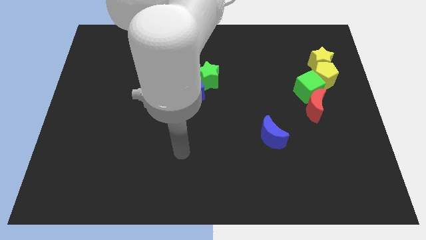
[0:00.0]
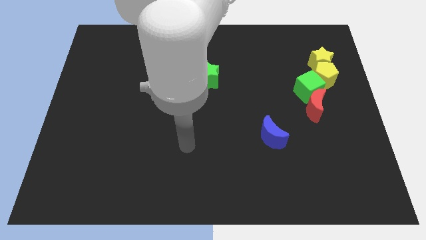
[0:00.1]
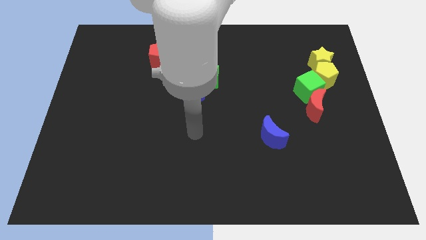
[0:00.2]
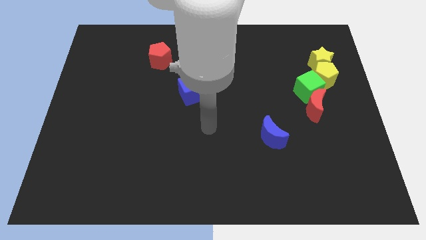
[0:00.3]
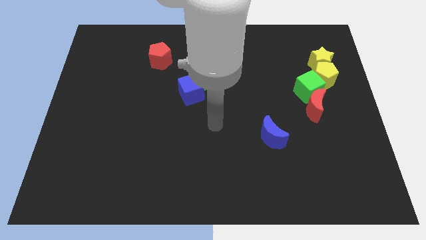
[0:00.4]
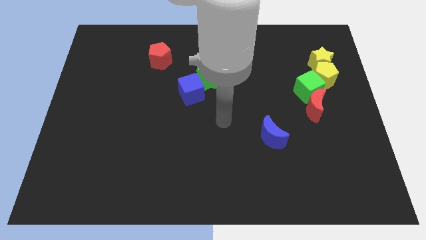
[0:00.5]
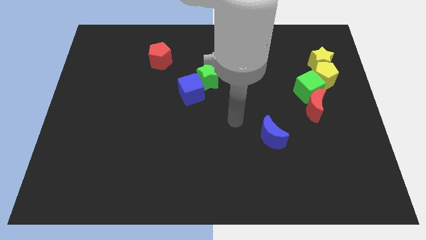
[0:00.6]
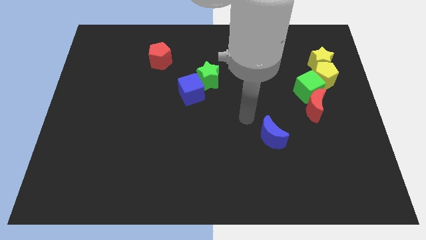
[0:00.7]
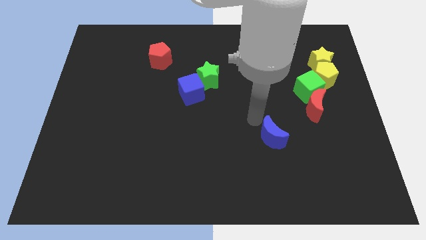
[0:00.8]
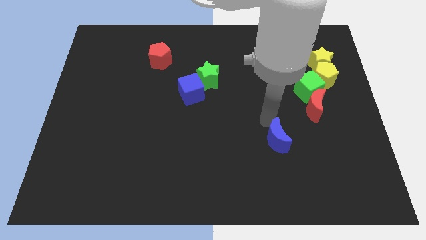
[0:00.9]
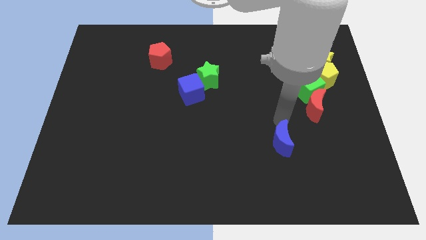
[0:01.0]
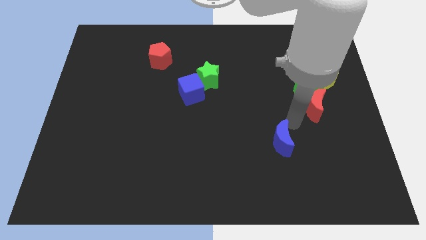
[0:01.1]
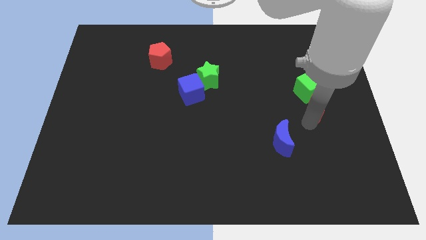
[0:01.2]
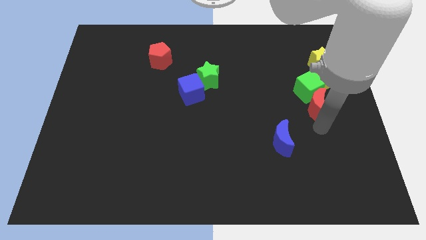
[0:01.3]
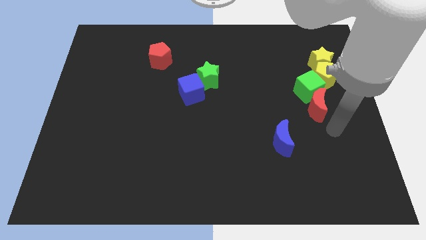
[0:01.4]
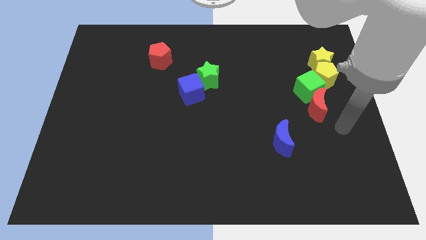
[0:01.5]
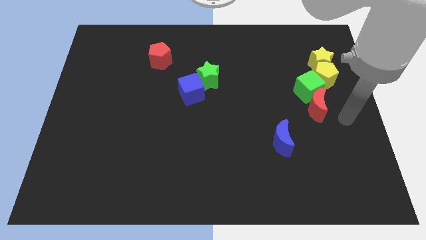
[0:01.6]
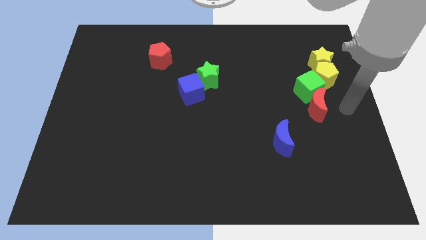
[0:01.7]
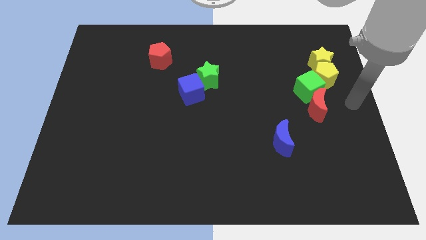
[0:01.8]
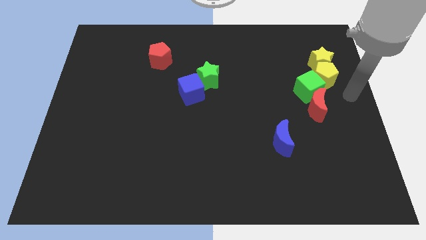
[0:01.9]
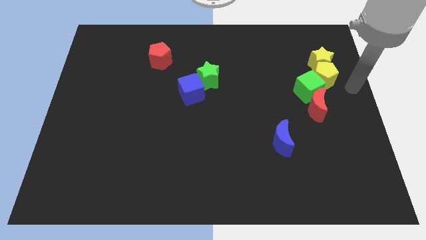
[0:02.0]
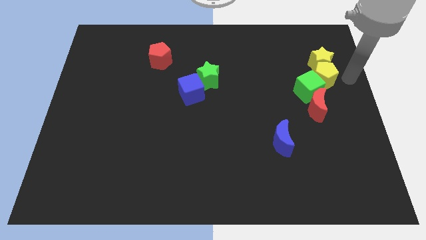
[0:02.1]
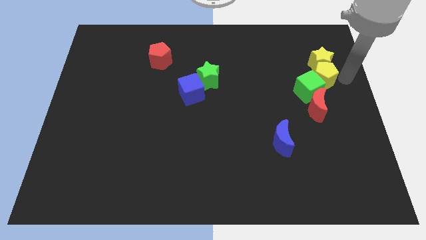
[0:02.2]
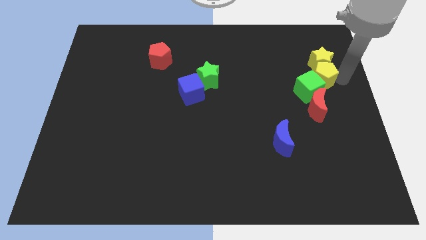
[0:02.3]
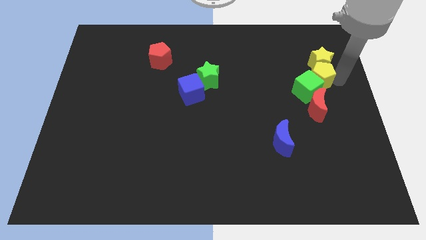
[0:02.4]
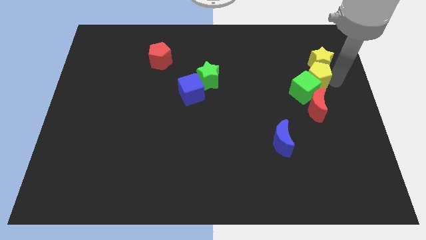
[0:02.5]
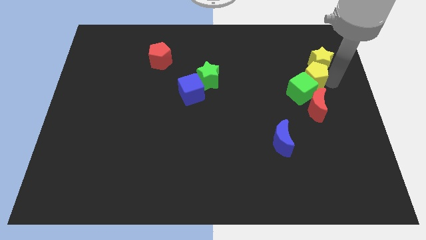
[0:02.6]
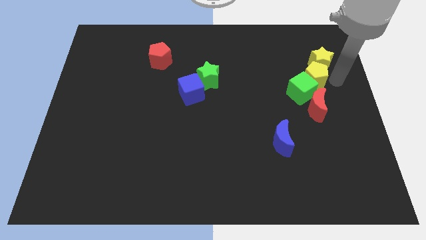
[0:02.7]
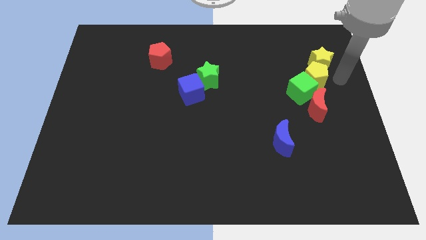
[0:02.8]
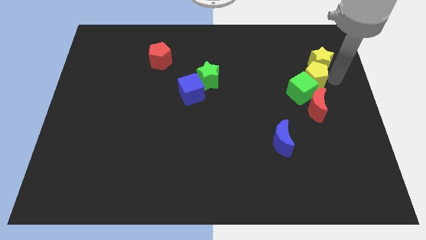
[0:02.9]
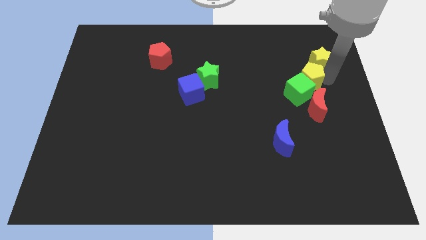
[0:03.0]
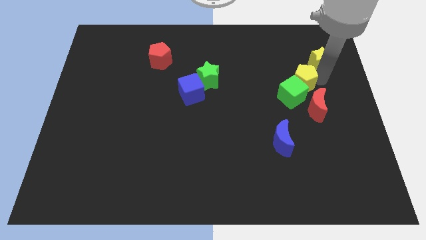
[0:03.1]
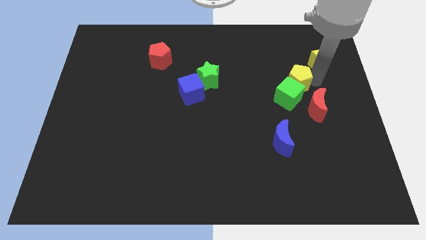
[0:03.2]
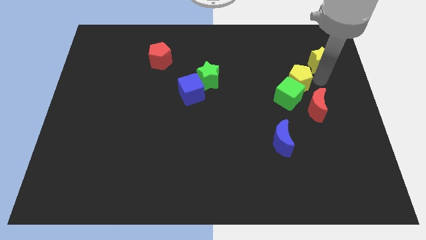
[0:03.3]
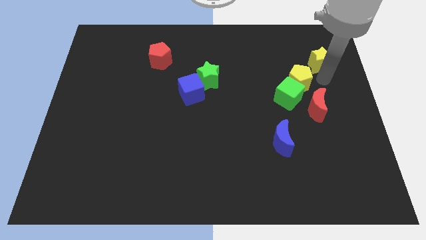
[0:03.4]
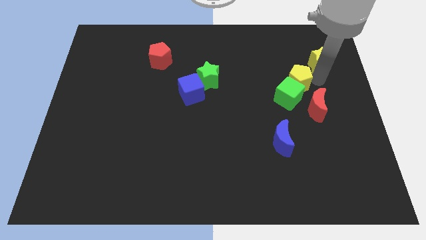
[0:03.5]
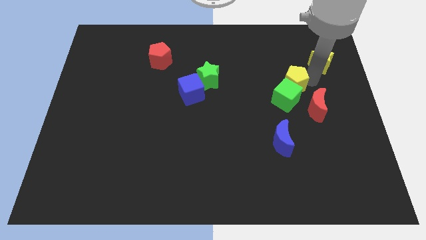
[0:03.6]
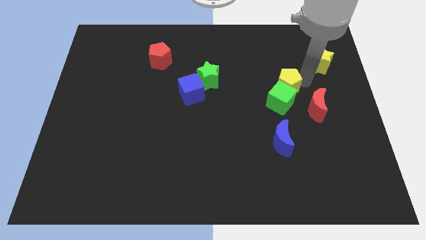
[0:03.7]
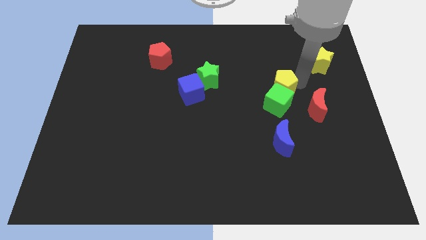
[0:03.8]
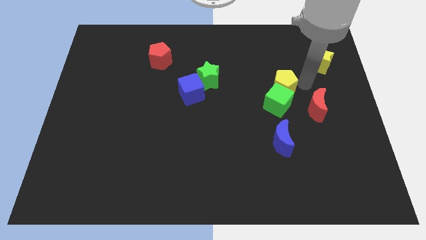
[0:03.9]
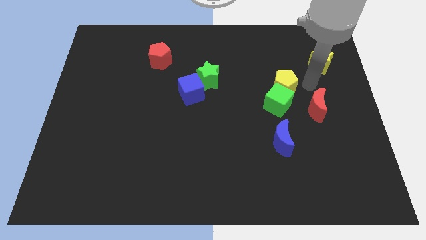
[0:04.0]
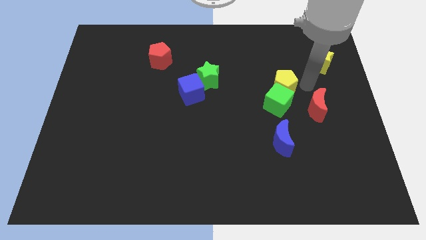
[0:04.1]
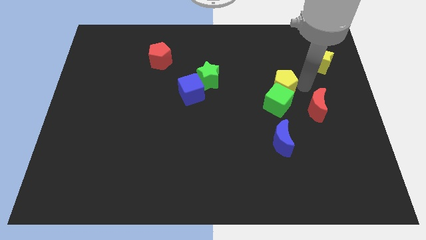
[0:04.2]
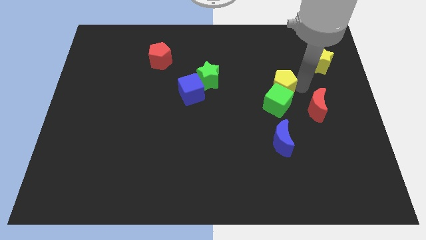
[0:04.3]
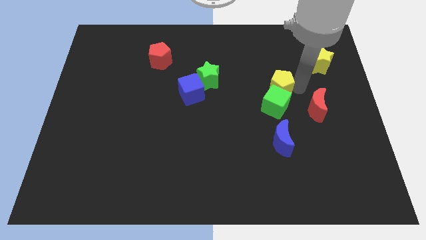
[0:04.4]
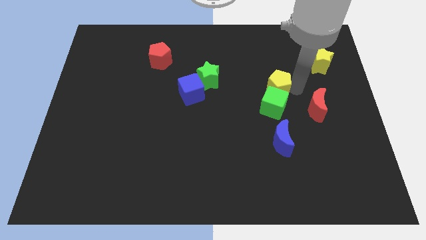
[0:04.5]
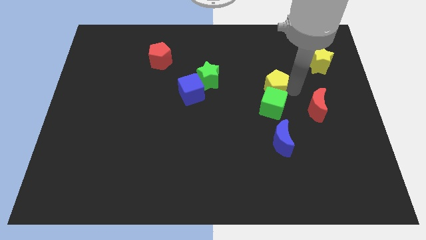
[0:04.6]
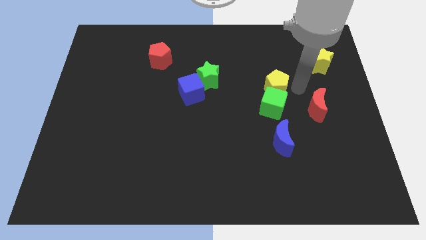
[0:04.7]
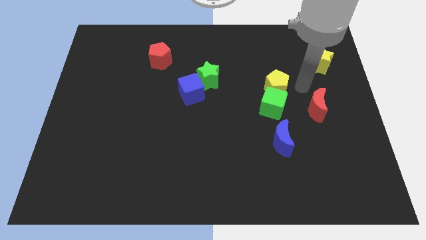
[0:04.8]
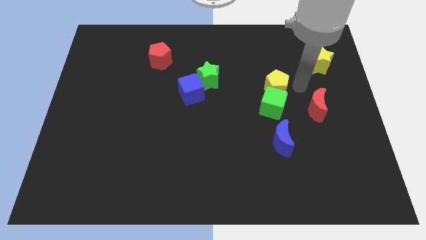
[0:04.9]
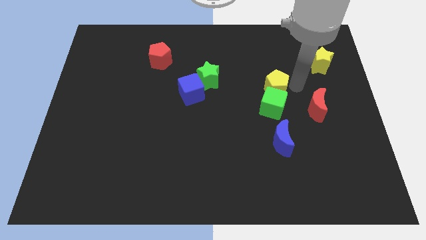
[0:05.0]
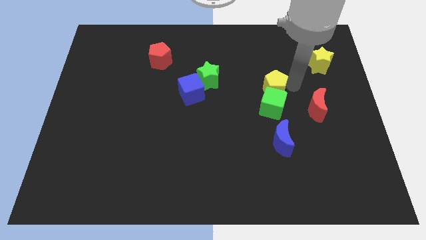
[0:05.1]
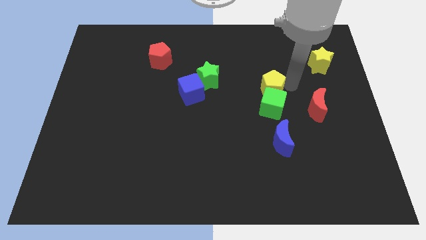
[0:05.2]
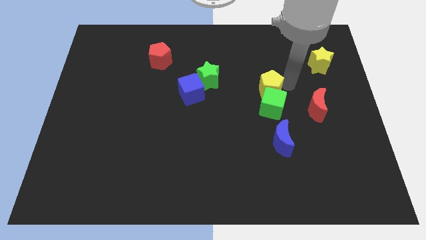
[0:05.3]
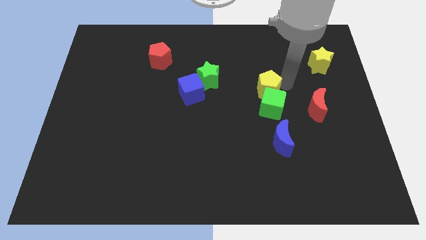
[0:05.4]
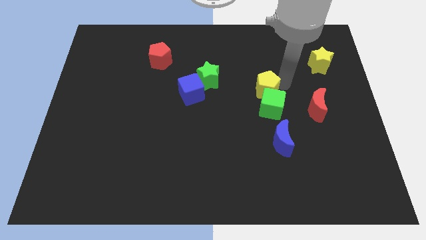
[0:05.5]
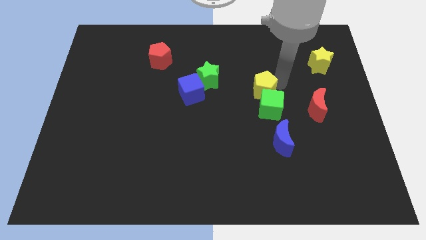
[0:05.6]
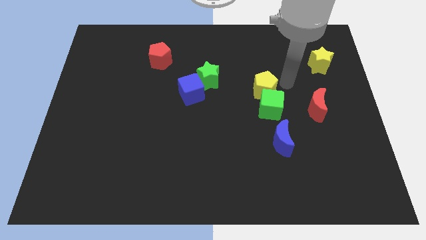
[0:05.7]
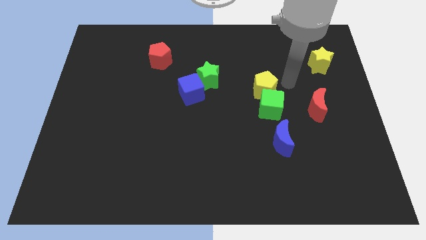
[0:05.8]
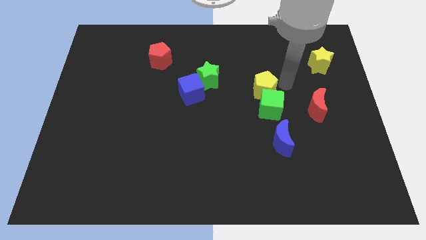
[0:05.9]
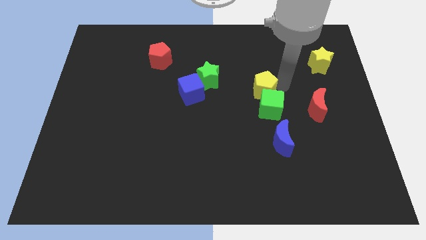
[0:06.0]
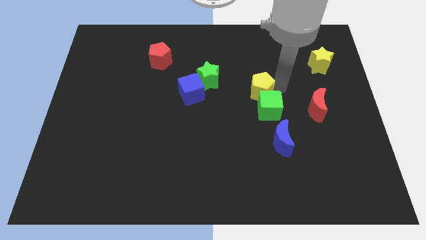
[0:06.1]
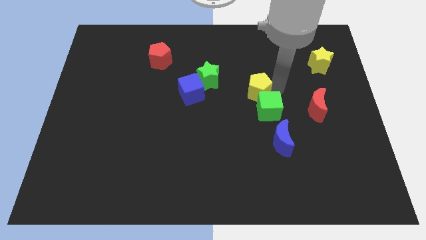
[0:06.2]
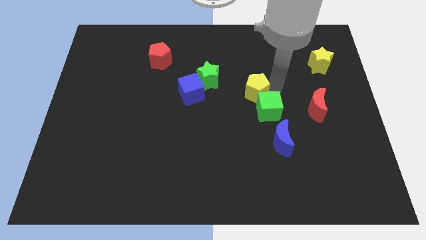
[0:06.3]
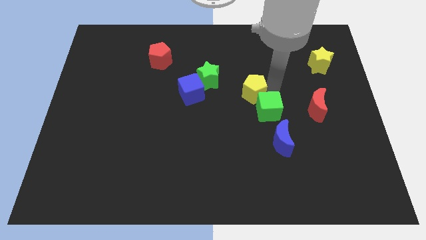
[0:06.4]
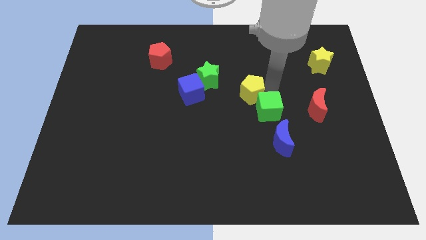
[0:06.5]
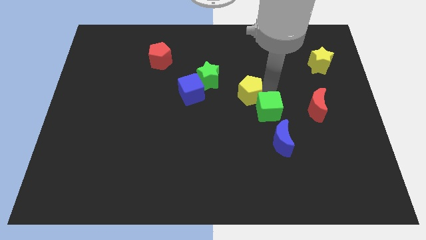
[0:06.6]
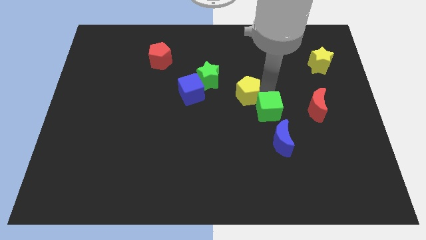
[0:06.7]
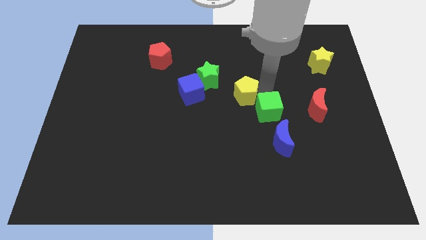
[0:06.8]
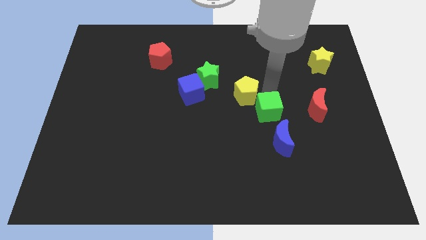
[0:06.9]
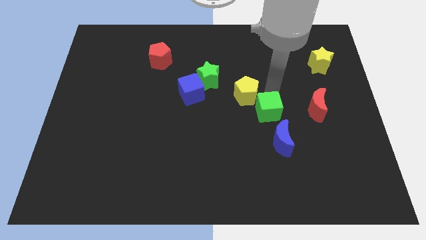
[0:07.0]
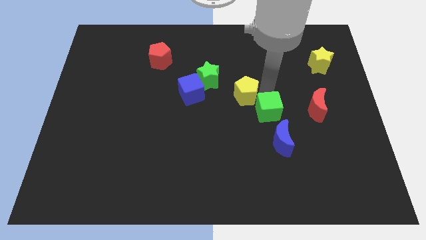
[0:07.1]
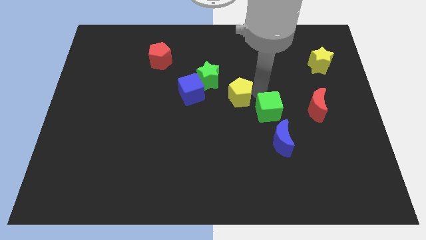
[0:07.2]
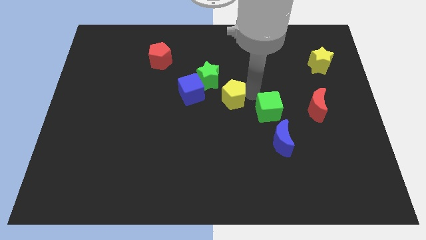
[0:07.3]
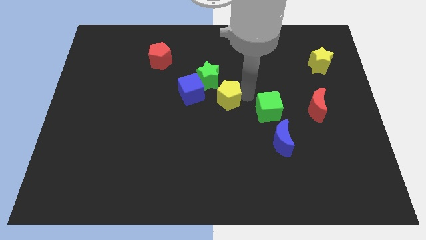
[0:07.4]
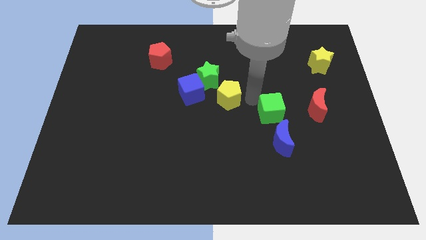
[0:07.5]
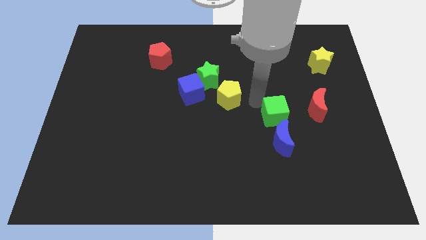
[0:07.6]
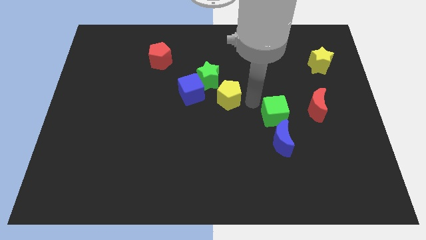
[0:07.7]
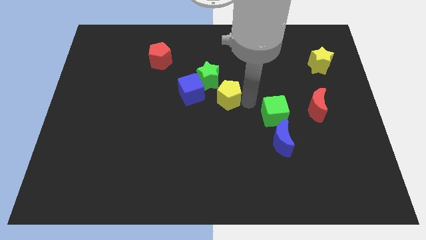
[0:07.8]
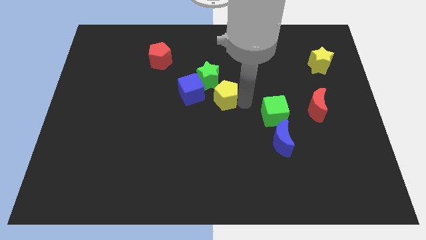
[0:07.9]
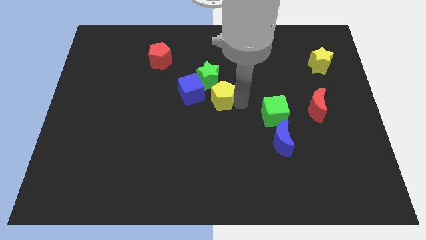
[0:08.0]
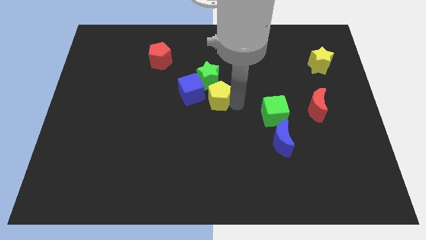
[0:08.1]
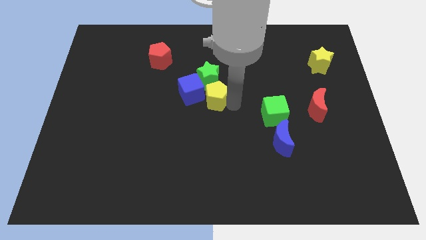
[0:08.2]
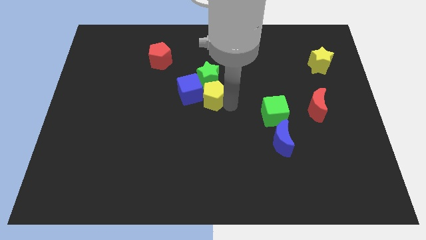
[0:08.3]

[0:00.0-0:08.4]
put the yellow pentagon close to the blue cube
